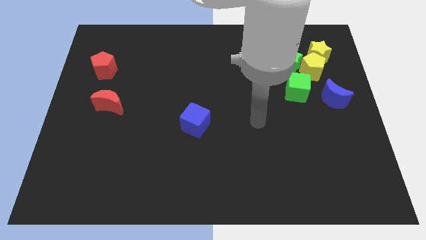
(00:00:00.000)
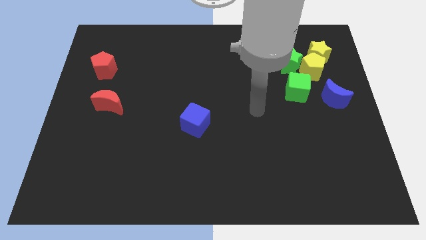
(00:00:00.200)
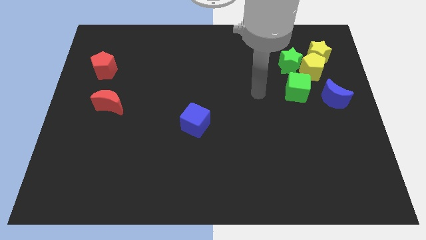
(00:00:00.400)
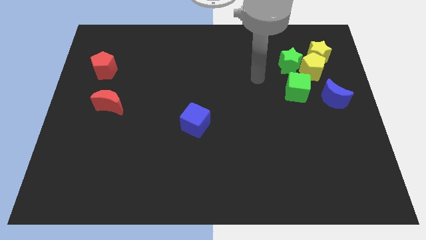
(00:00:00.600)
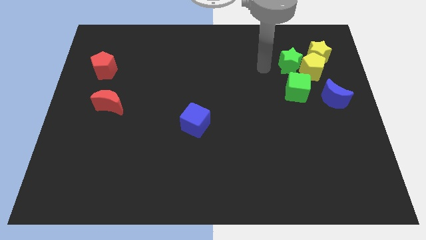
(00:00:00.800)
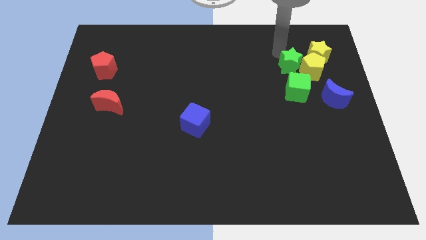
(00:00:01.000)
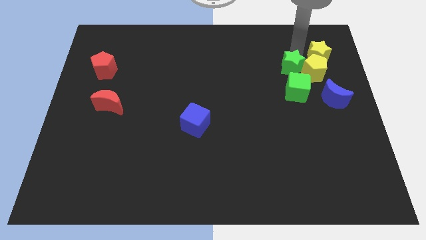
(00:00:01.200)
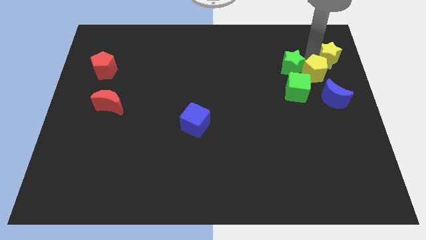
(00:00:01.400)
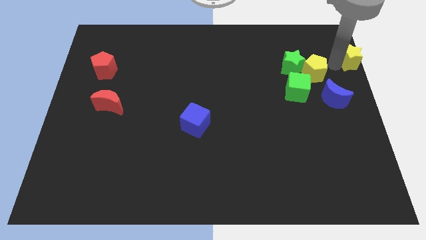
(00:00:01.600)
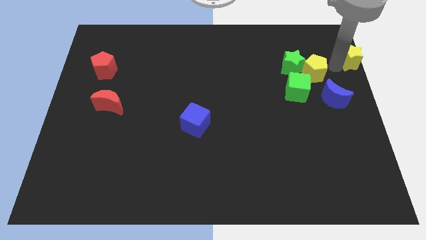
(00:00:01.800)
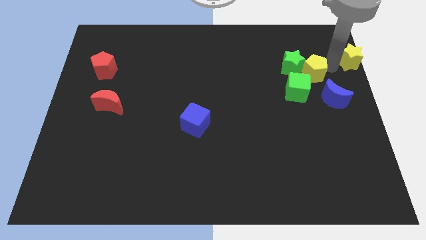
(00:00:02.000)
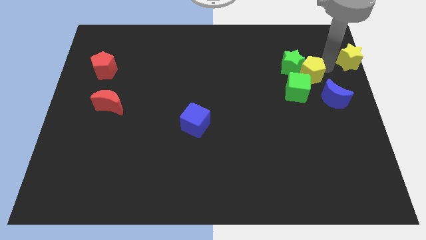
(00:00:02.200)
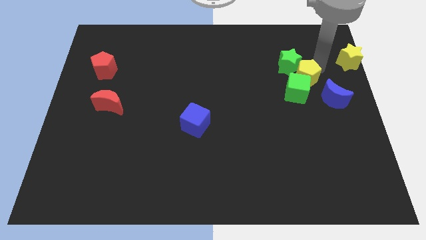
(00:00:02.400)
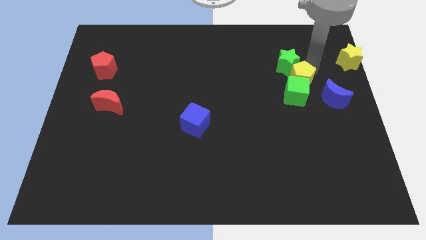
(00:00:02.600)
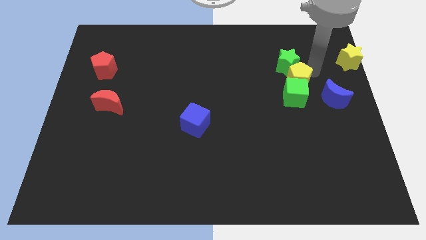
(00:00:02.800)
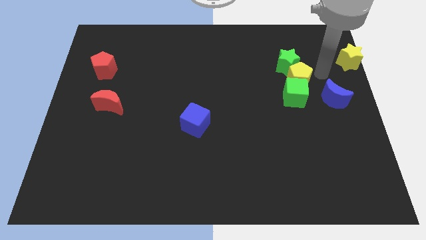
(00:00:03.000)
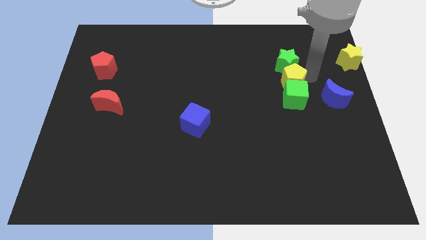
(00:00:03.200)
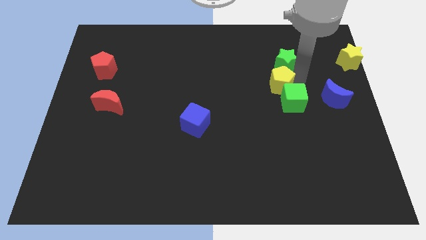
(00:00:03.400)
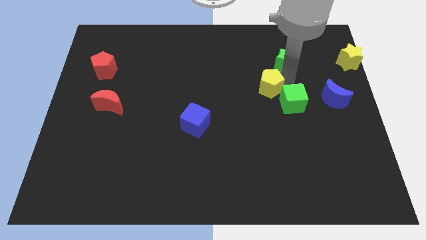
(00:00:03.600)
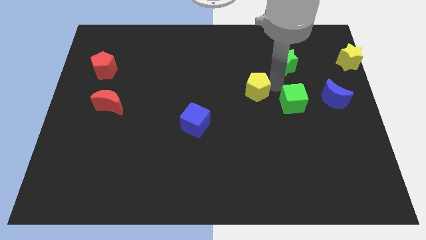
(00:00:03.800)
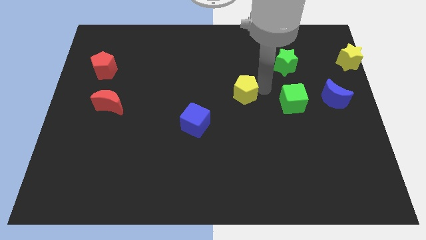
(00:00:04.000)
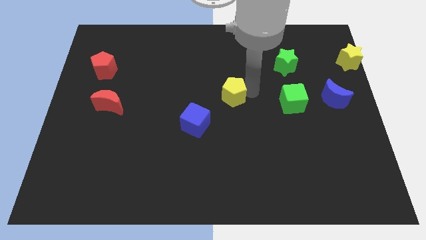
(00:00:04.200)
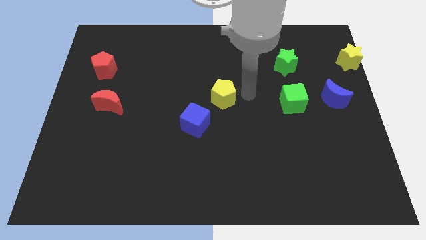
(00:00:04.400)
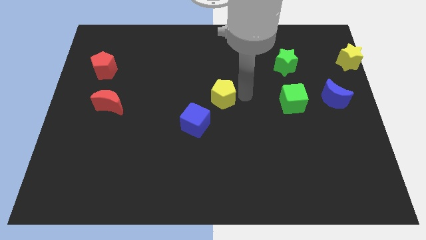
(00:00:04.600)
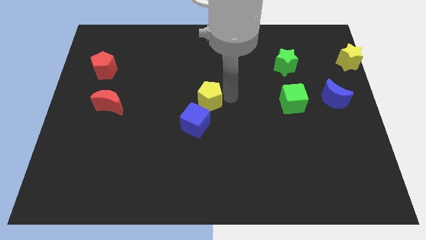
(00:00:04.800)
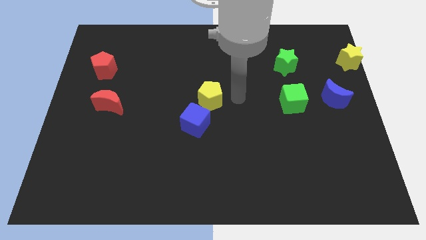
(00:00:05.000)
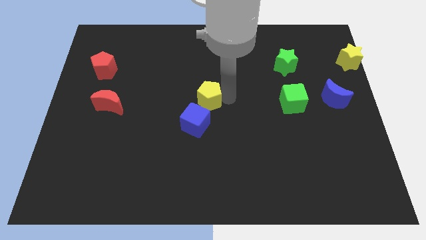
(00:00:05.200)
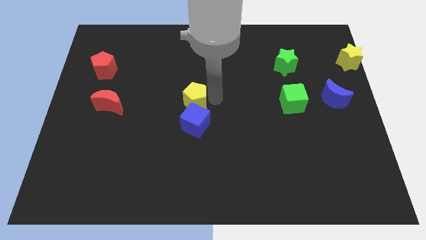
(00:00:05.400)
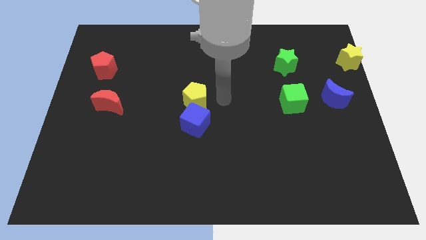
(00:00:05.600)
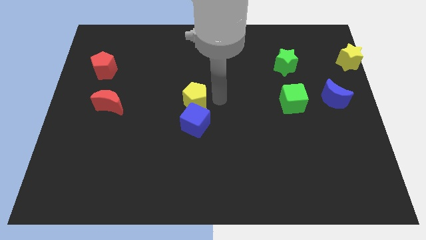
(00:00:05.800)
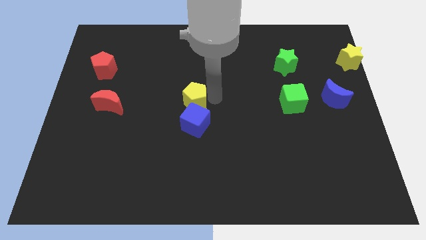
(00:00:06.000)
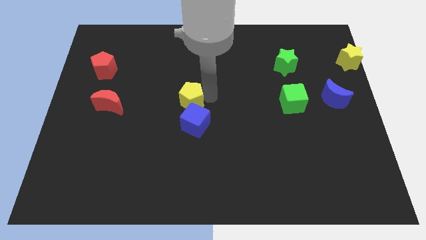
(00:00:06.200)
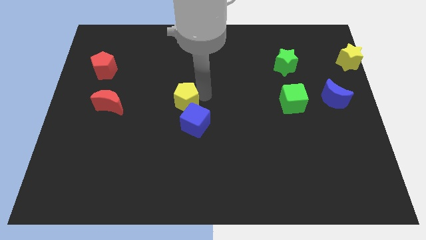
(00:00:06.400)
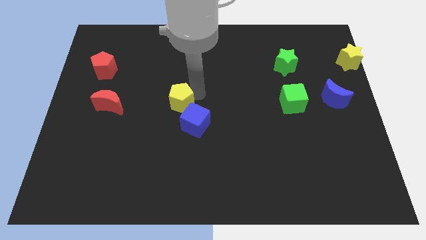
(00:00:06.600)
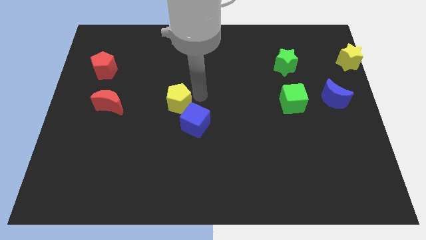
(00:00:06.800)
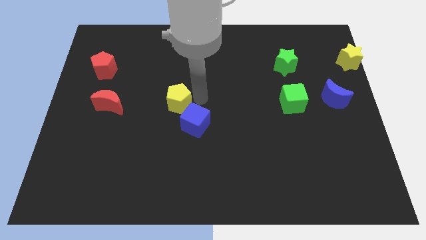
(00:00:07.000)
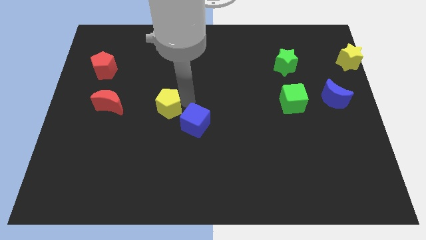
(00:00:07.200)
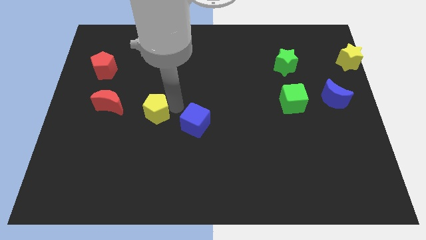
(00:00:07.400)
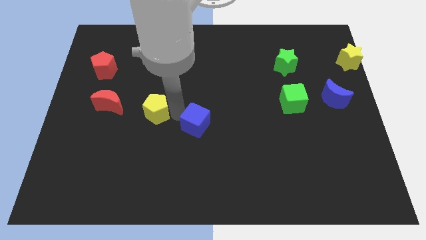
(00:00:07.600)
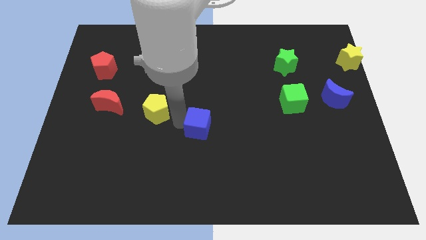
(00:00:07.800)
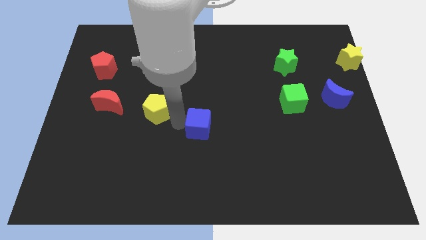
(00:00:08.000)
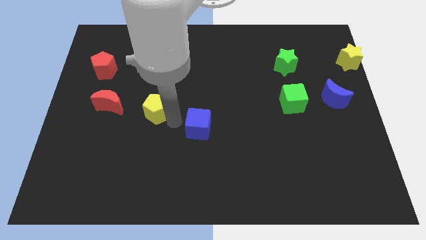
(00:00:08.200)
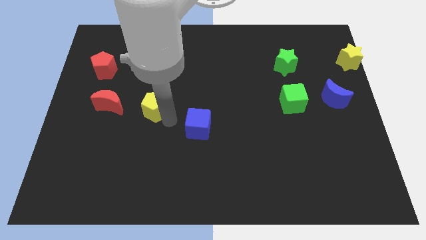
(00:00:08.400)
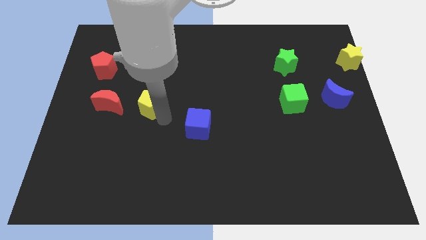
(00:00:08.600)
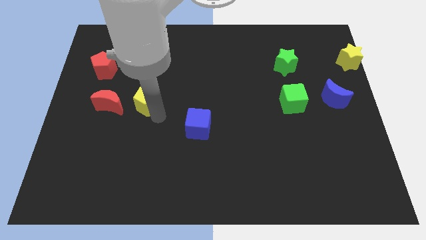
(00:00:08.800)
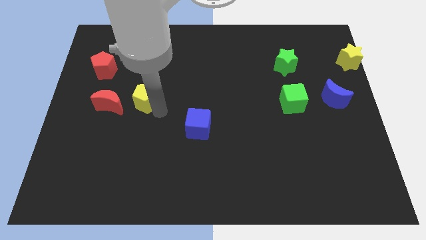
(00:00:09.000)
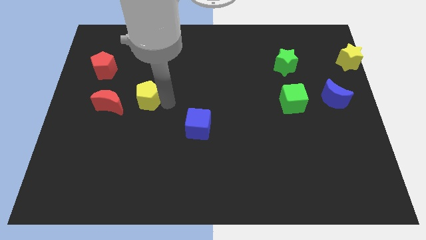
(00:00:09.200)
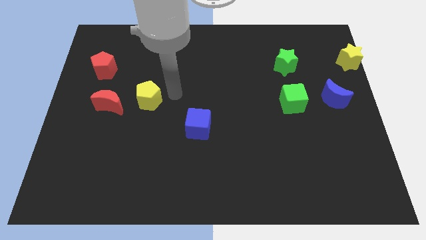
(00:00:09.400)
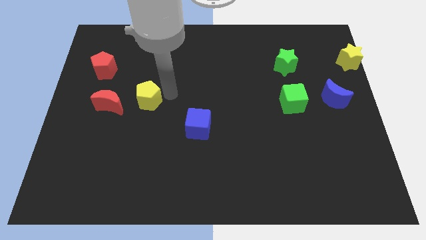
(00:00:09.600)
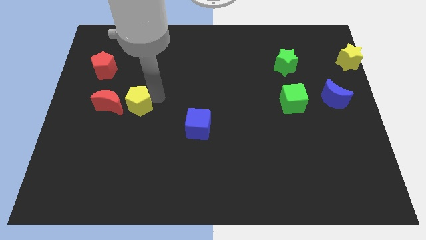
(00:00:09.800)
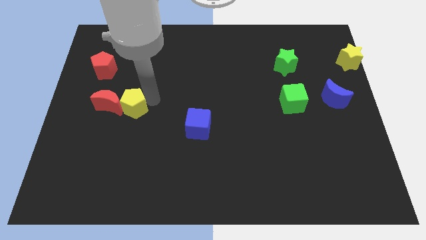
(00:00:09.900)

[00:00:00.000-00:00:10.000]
put the yellow pentagon to the red moon

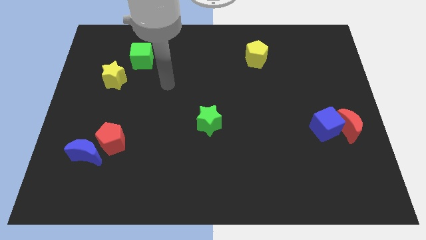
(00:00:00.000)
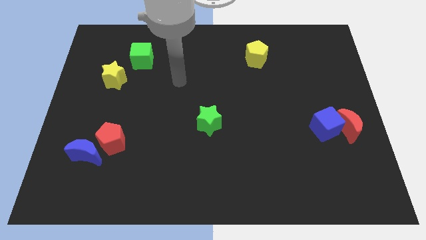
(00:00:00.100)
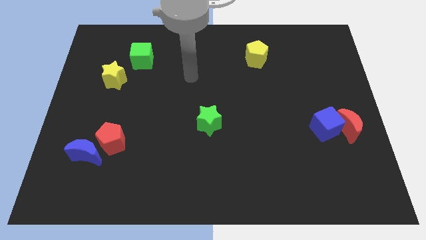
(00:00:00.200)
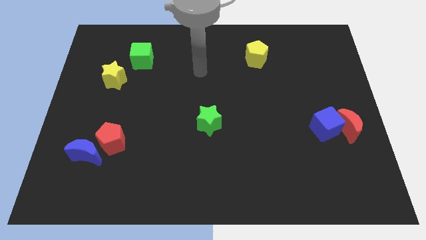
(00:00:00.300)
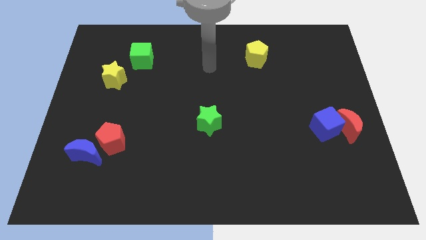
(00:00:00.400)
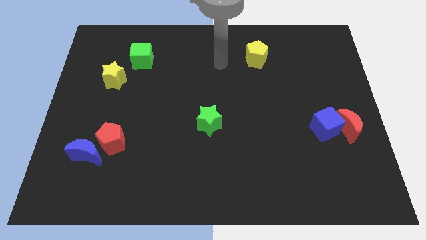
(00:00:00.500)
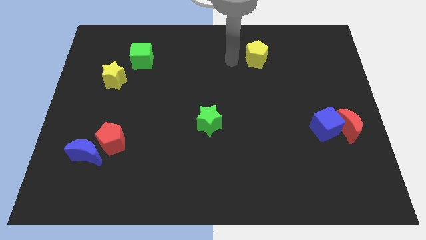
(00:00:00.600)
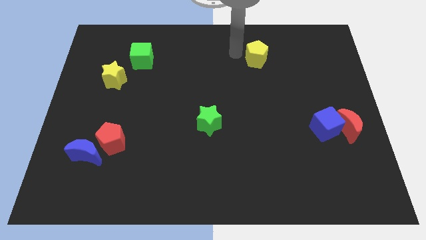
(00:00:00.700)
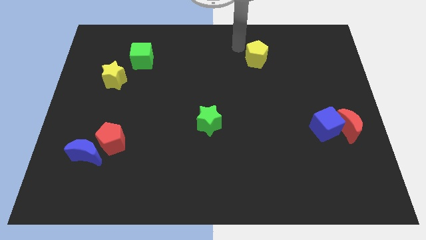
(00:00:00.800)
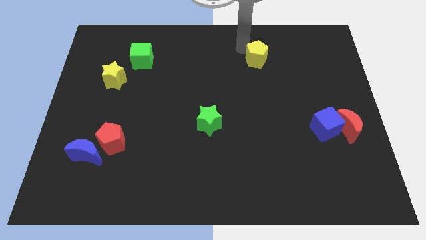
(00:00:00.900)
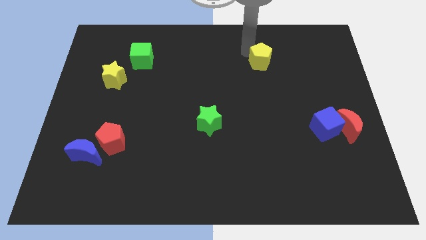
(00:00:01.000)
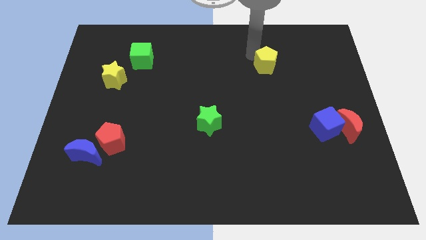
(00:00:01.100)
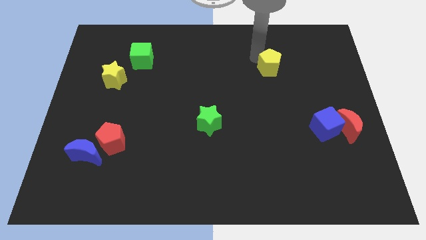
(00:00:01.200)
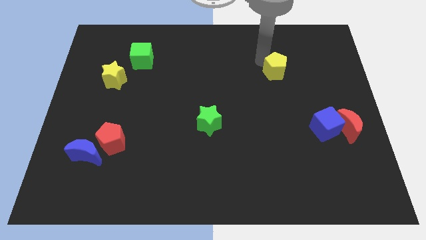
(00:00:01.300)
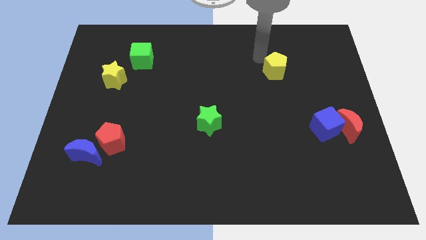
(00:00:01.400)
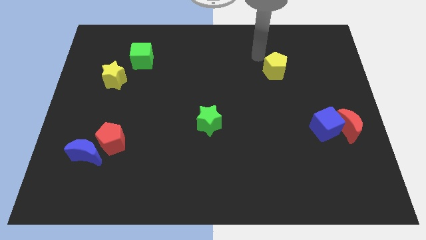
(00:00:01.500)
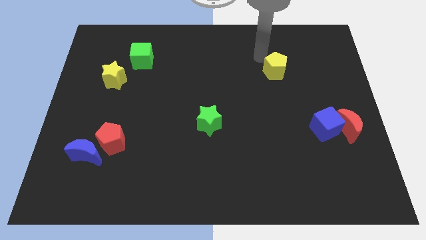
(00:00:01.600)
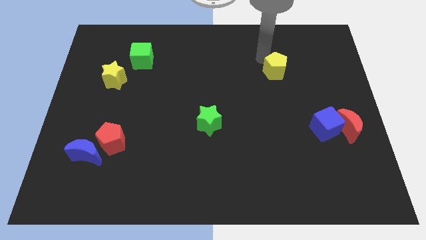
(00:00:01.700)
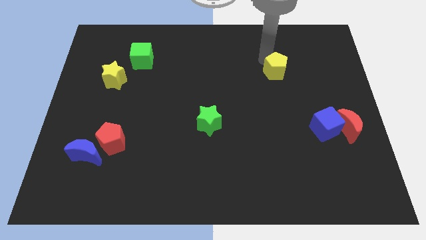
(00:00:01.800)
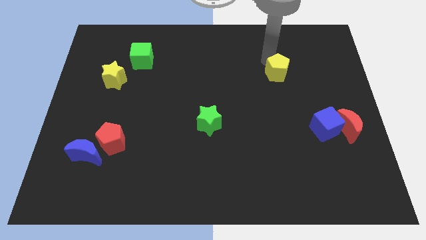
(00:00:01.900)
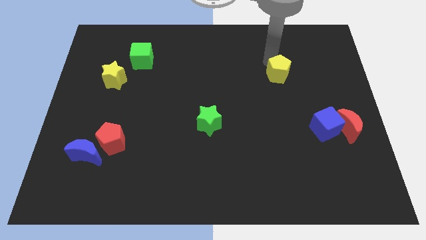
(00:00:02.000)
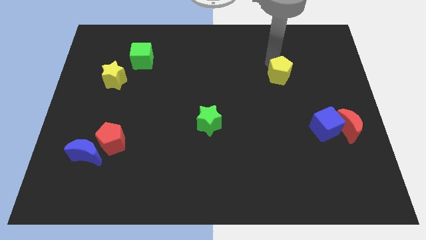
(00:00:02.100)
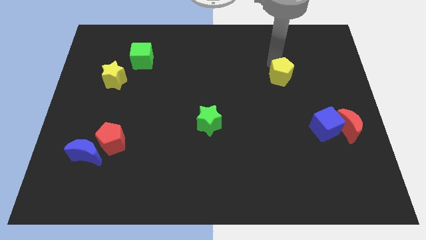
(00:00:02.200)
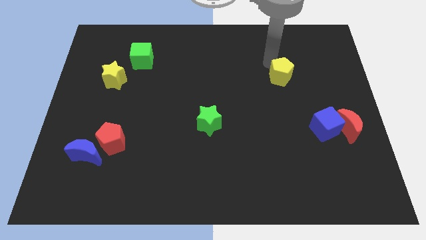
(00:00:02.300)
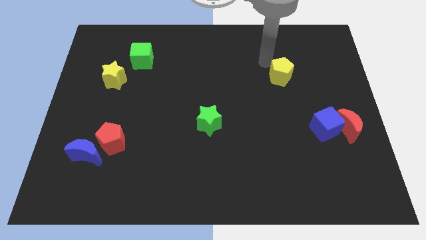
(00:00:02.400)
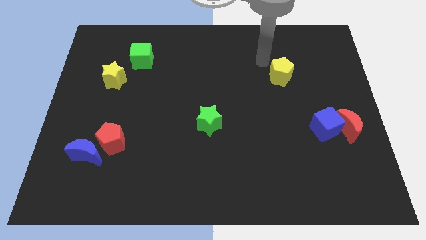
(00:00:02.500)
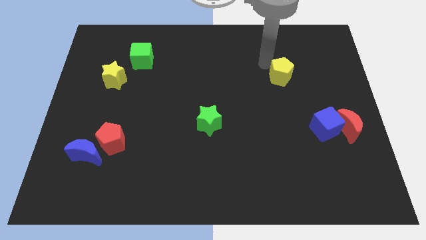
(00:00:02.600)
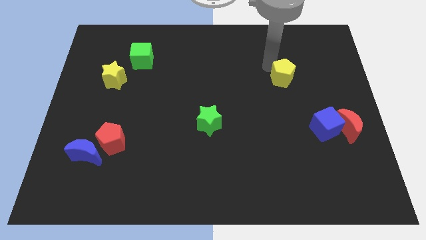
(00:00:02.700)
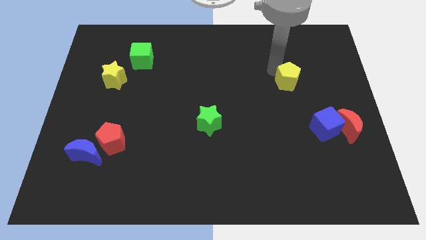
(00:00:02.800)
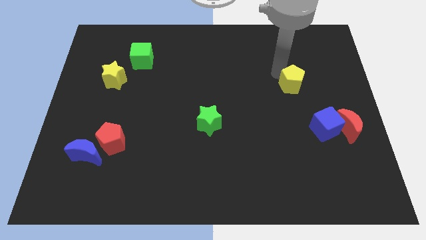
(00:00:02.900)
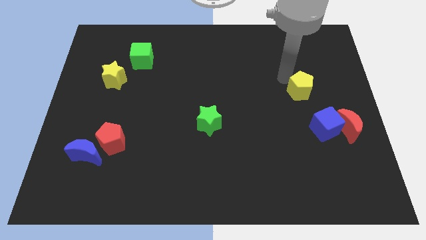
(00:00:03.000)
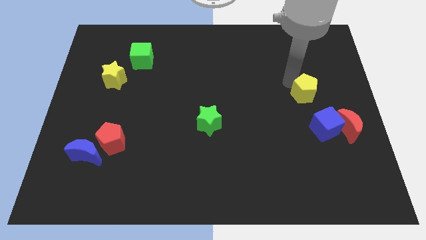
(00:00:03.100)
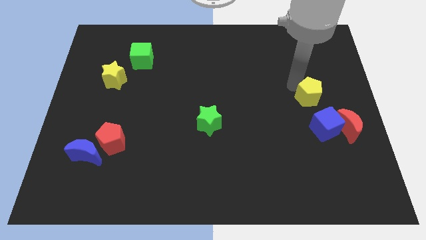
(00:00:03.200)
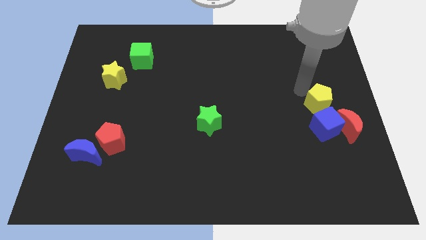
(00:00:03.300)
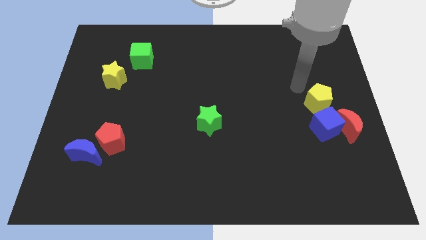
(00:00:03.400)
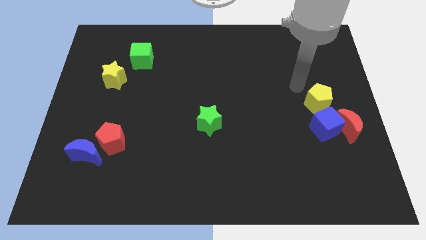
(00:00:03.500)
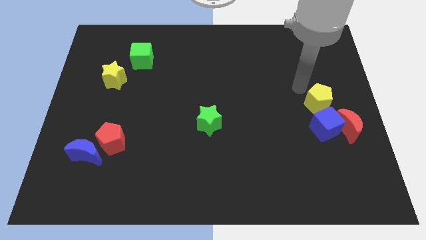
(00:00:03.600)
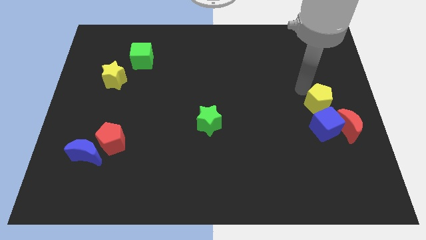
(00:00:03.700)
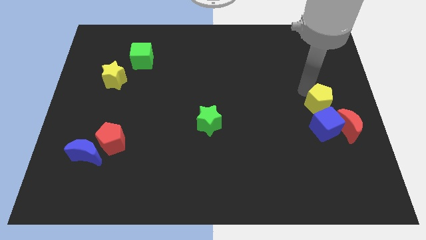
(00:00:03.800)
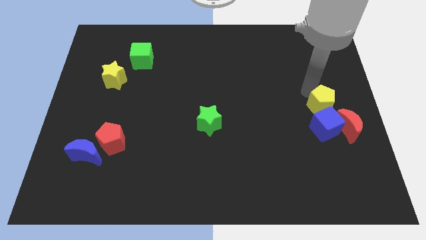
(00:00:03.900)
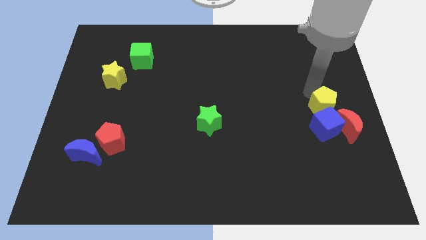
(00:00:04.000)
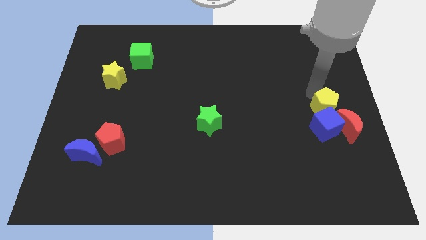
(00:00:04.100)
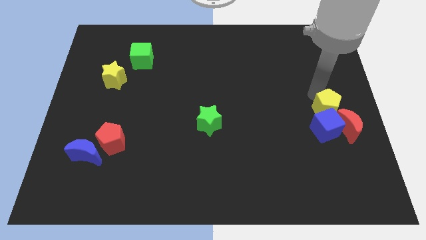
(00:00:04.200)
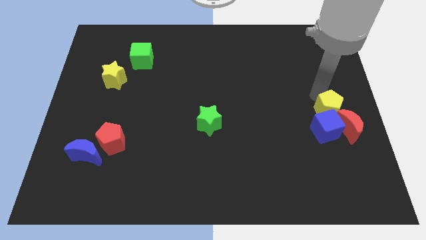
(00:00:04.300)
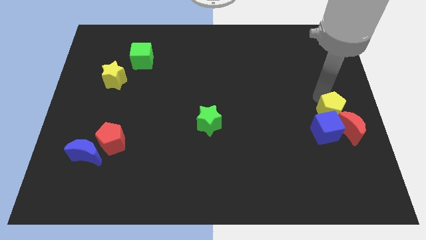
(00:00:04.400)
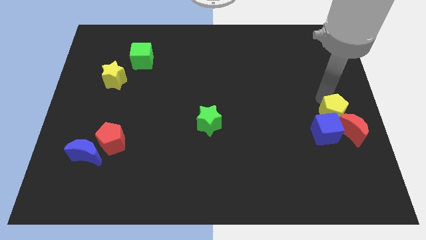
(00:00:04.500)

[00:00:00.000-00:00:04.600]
move the yellow pentagon next to the red moon
